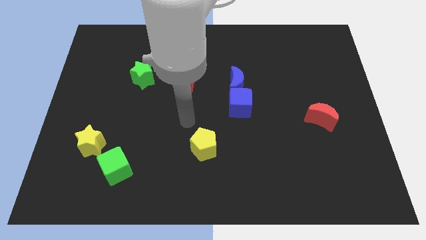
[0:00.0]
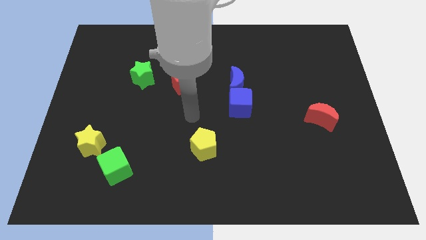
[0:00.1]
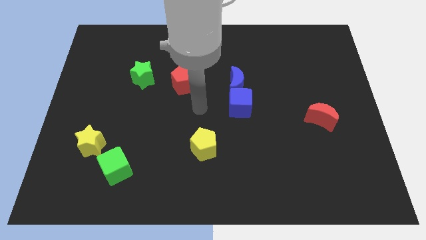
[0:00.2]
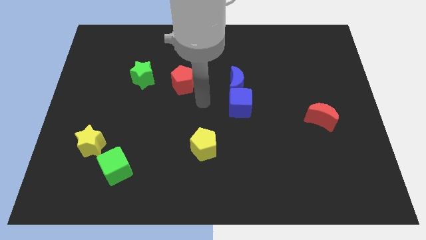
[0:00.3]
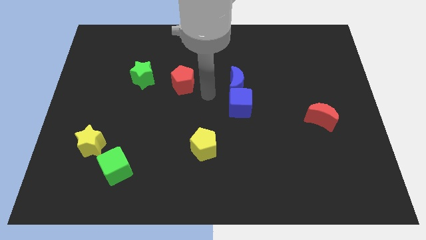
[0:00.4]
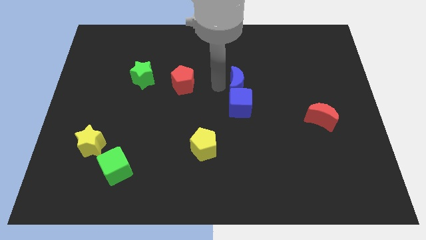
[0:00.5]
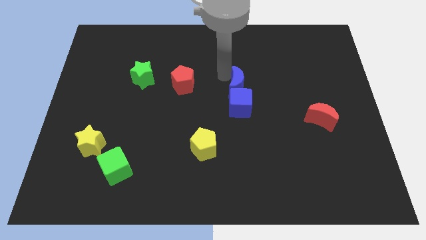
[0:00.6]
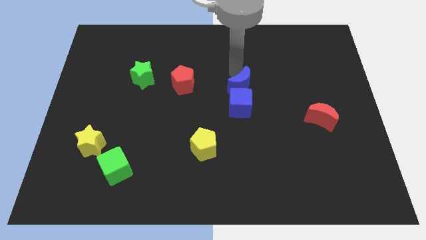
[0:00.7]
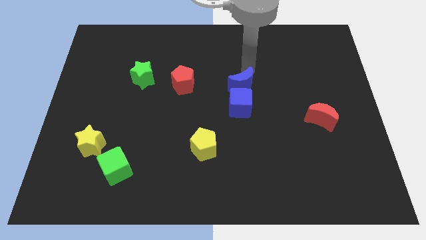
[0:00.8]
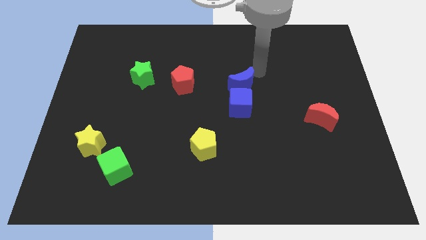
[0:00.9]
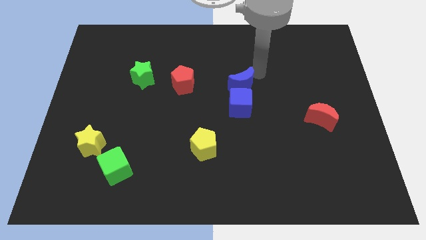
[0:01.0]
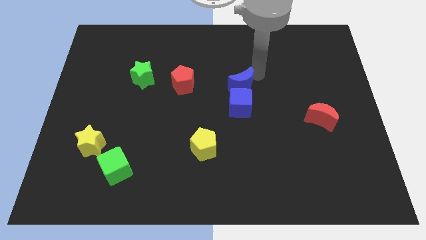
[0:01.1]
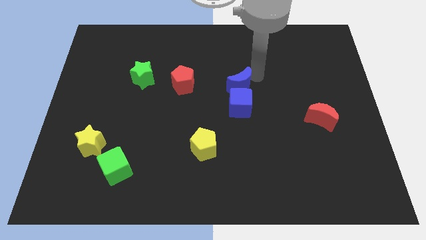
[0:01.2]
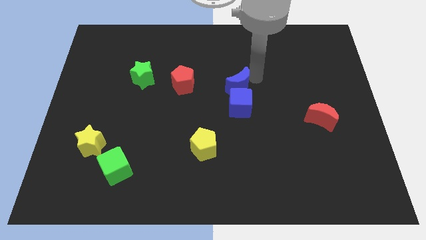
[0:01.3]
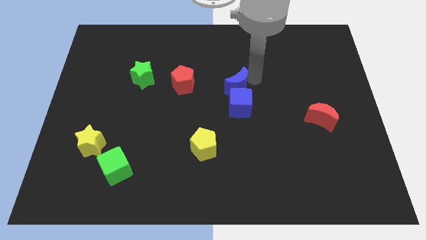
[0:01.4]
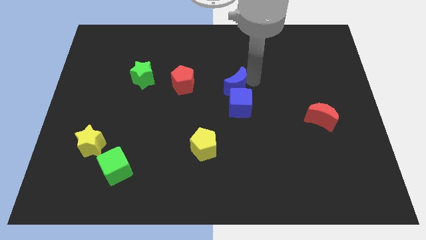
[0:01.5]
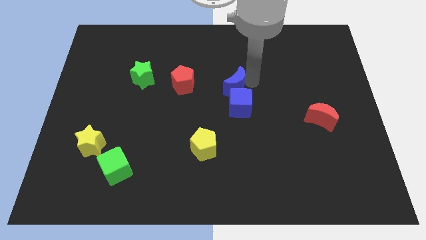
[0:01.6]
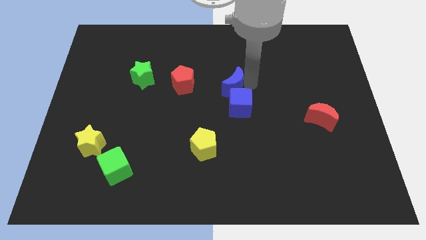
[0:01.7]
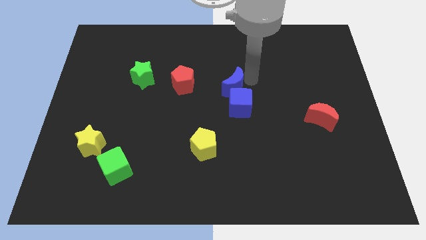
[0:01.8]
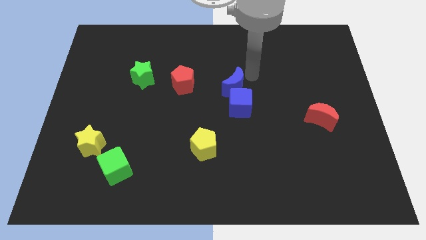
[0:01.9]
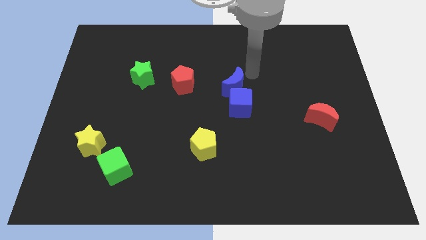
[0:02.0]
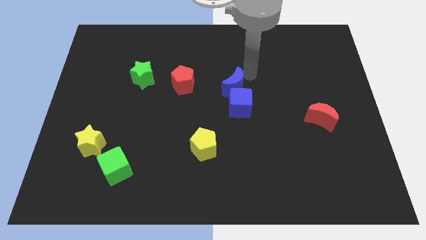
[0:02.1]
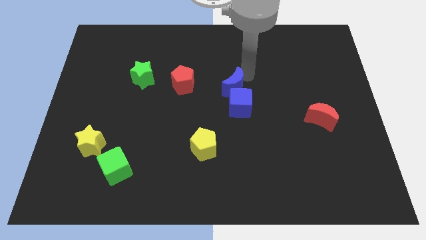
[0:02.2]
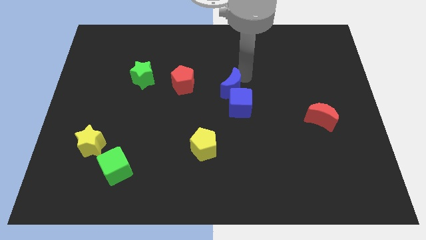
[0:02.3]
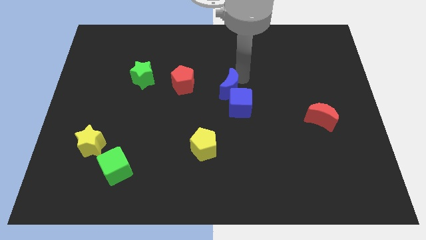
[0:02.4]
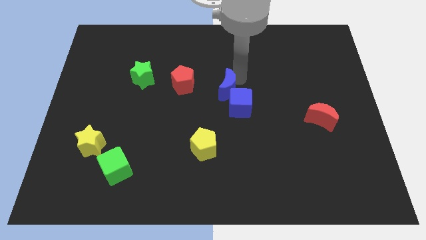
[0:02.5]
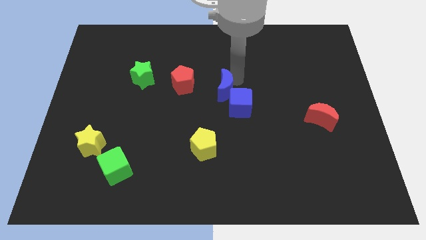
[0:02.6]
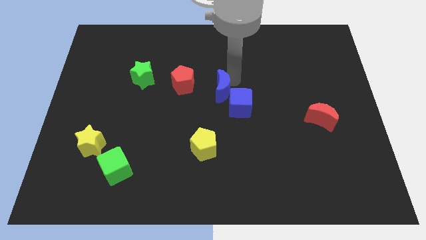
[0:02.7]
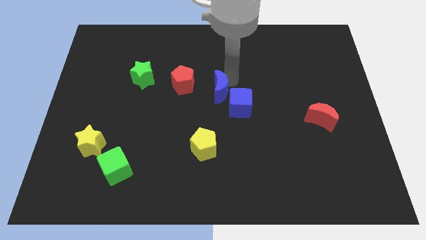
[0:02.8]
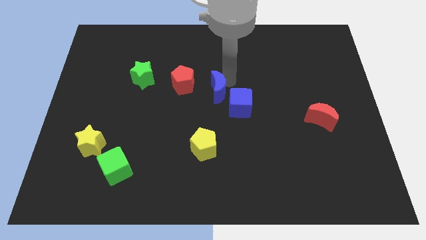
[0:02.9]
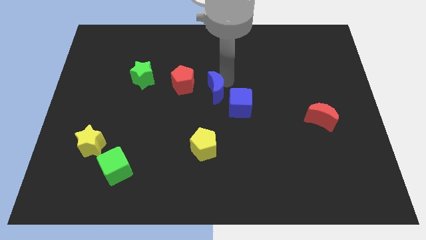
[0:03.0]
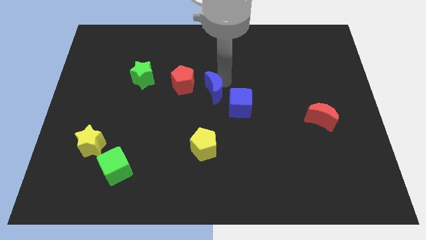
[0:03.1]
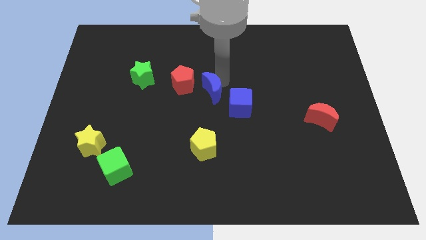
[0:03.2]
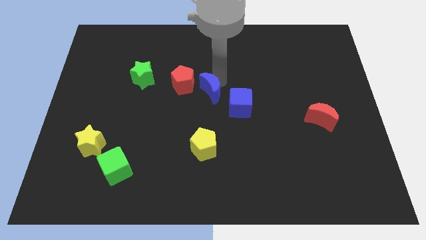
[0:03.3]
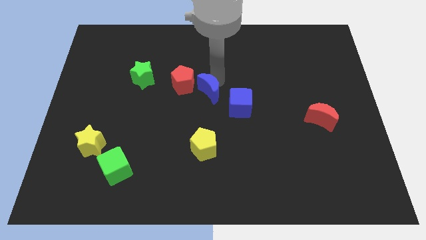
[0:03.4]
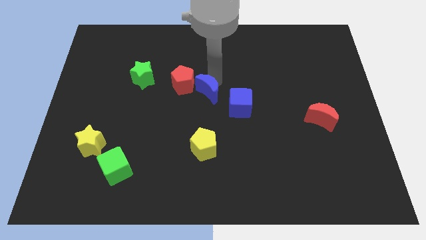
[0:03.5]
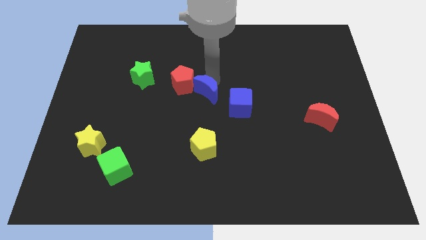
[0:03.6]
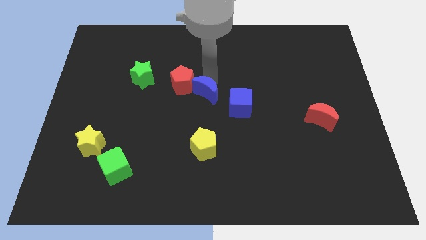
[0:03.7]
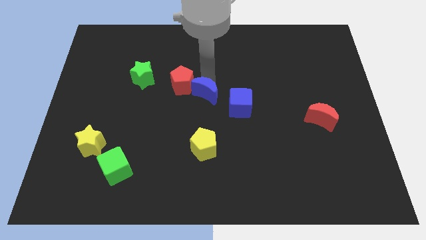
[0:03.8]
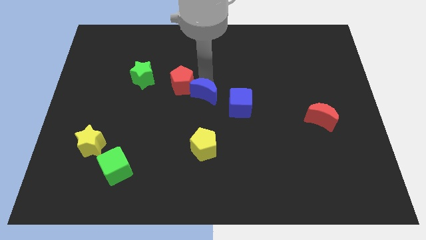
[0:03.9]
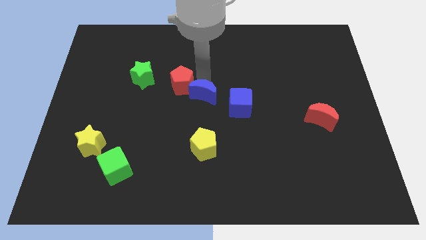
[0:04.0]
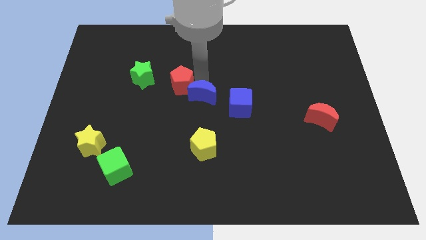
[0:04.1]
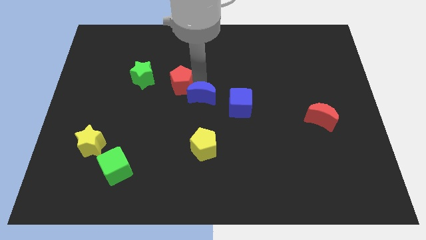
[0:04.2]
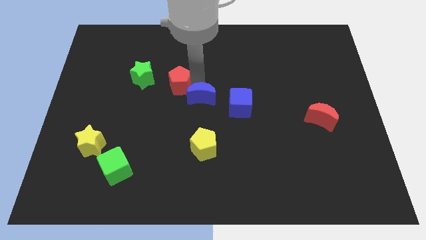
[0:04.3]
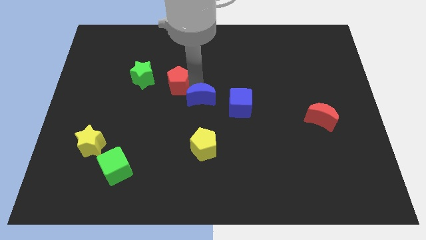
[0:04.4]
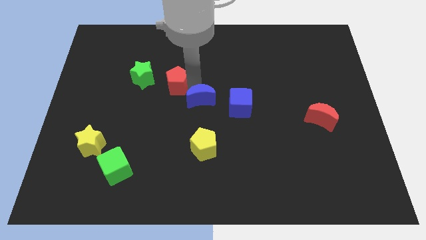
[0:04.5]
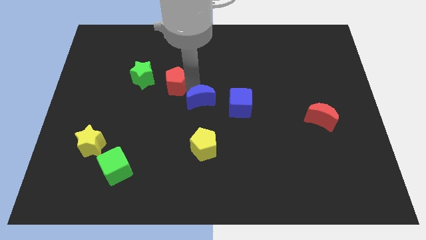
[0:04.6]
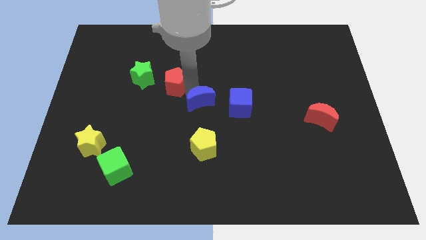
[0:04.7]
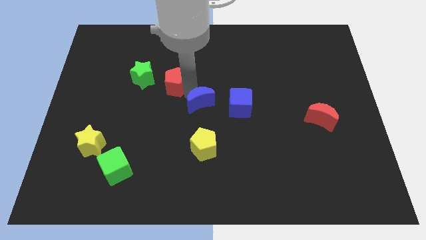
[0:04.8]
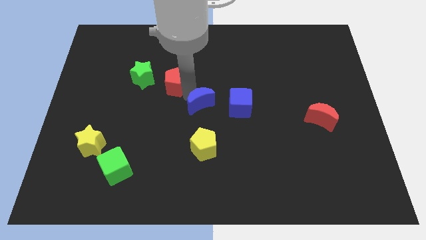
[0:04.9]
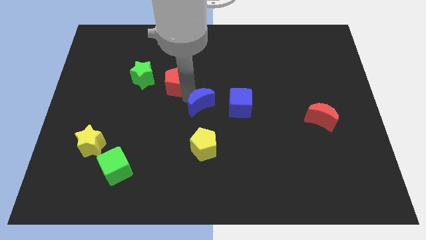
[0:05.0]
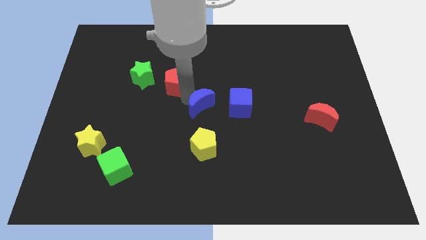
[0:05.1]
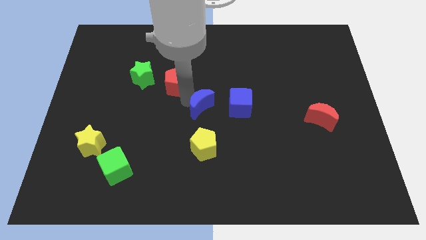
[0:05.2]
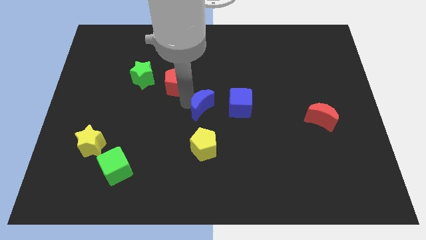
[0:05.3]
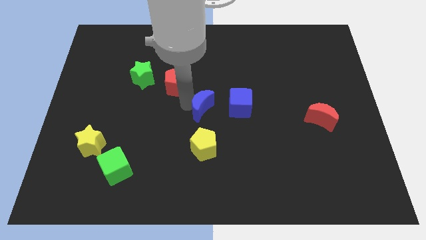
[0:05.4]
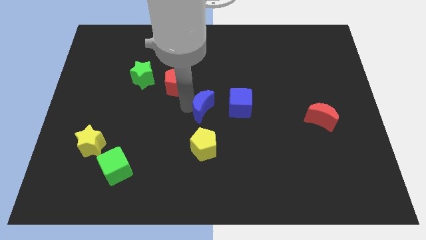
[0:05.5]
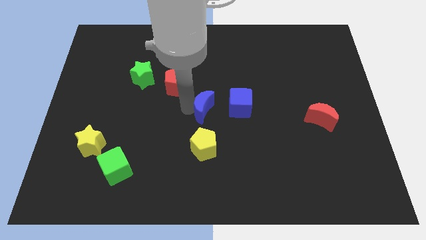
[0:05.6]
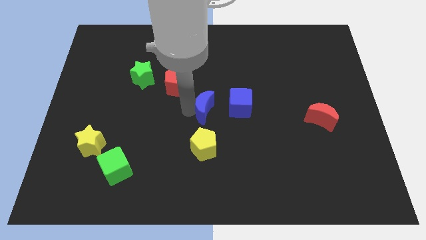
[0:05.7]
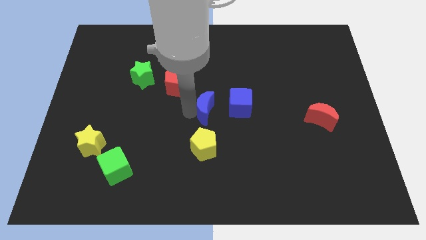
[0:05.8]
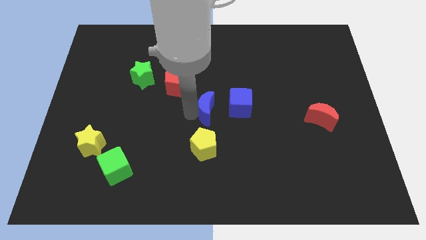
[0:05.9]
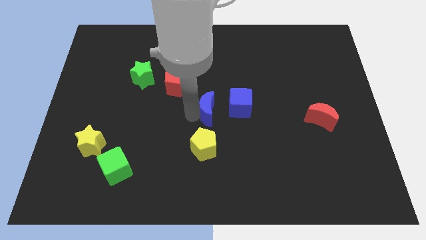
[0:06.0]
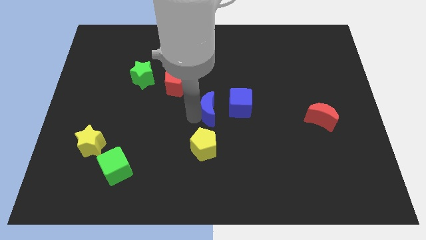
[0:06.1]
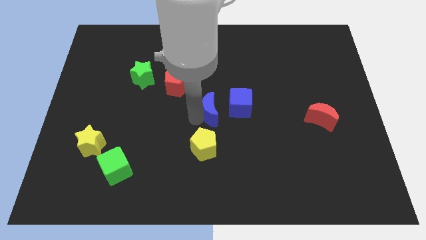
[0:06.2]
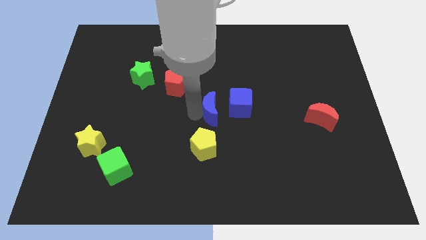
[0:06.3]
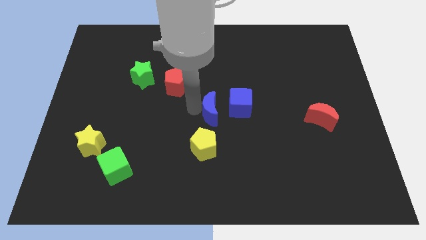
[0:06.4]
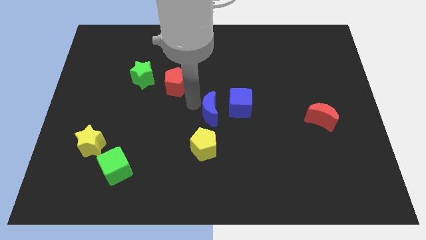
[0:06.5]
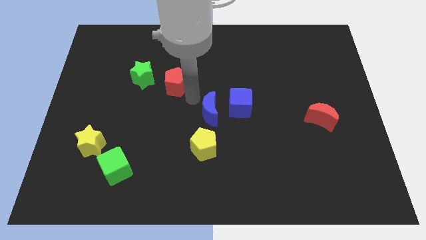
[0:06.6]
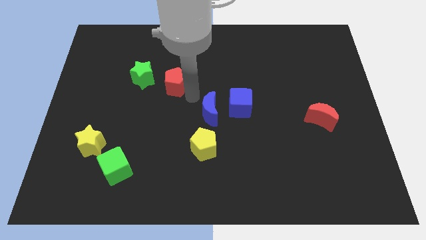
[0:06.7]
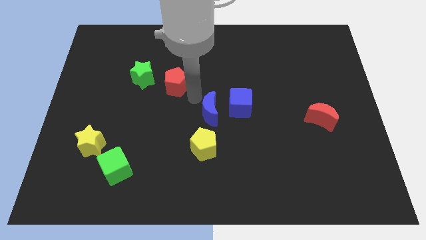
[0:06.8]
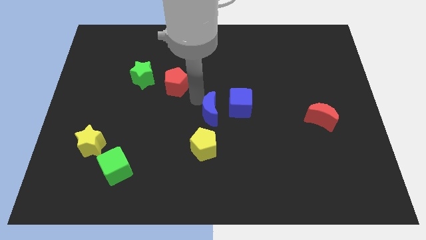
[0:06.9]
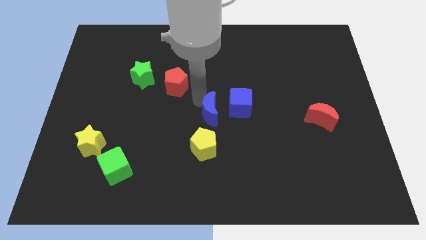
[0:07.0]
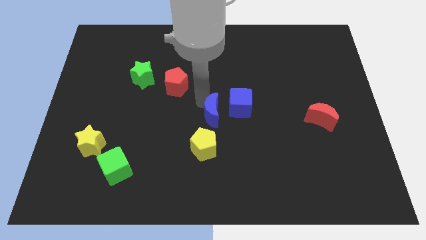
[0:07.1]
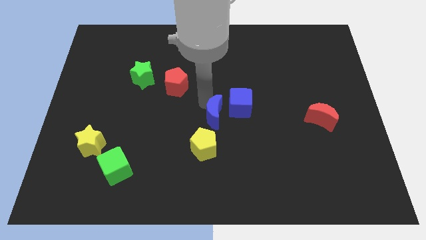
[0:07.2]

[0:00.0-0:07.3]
put the blue moon to the top right of the yellow pentagon
